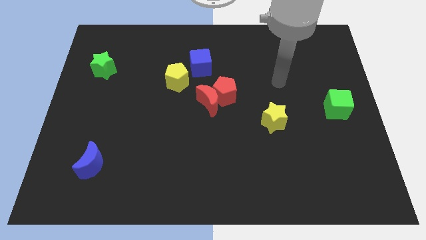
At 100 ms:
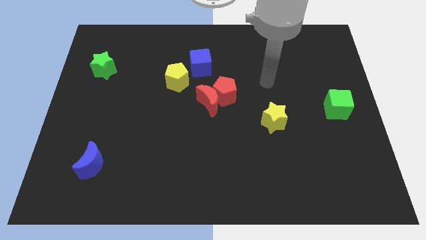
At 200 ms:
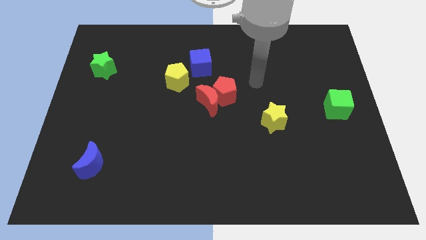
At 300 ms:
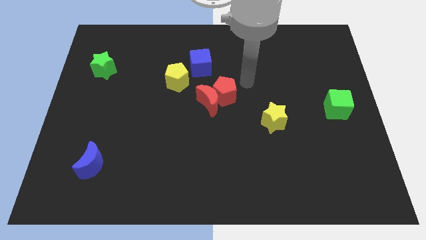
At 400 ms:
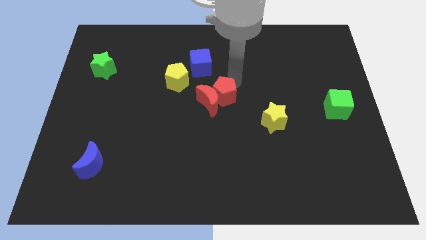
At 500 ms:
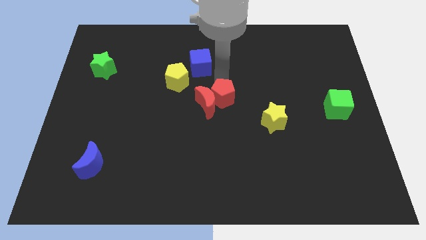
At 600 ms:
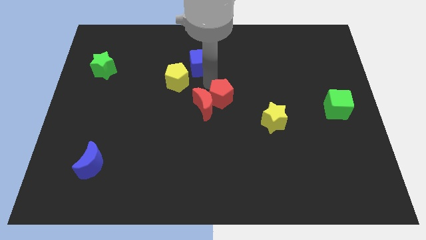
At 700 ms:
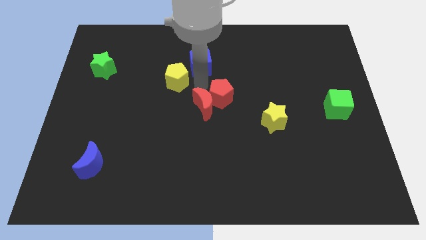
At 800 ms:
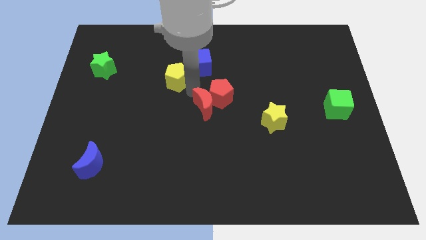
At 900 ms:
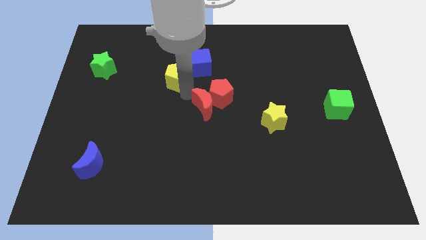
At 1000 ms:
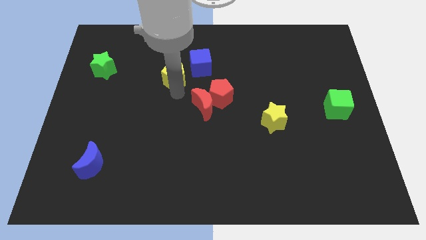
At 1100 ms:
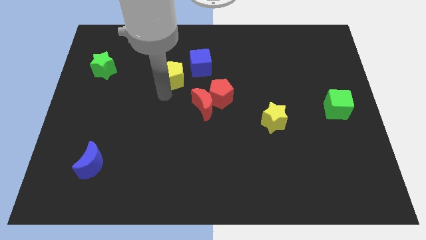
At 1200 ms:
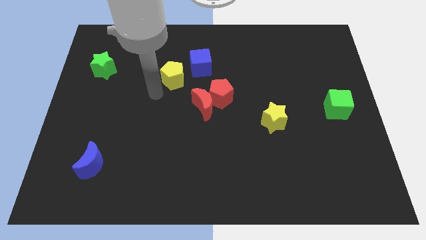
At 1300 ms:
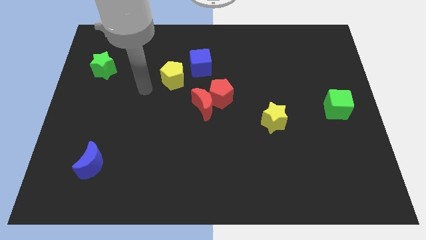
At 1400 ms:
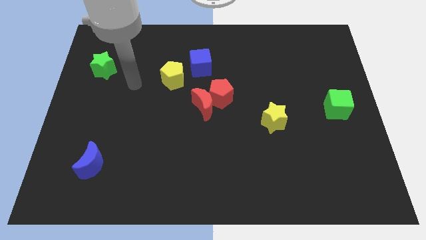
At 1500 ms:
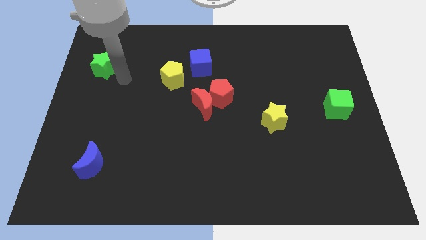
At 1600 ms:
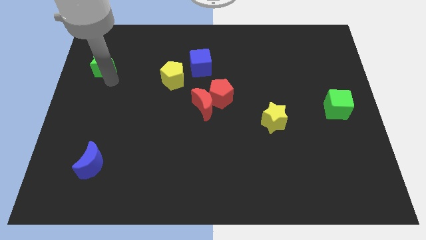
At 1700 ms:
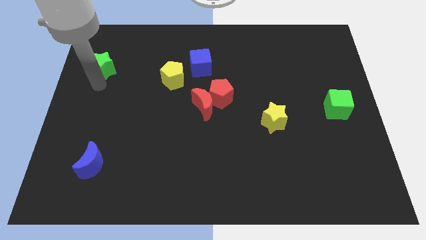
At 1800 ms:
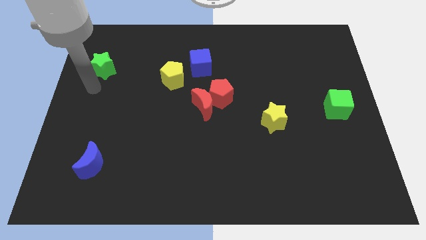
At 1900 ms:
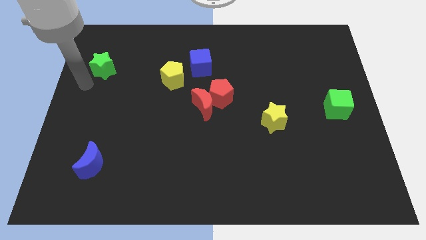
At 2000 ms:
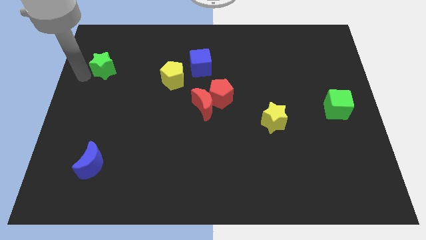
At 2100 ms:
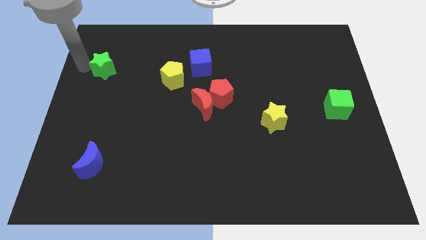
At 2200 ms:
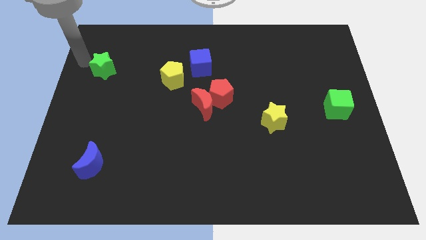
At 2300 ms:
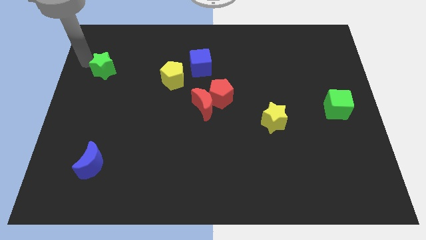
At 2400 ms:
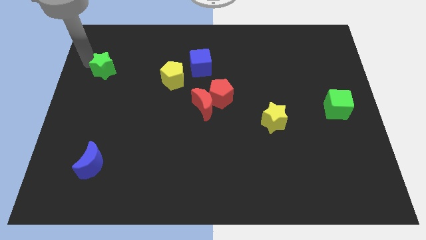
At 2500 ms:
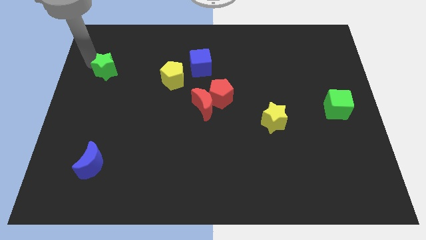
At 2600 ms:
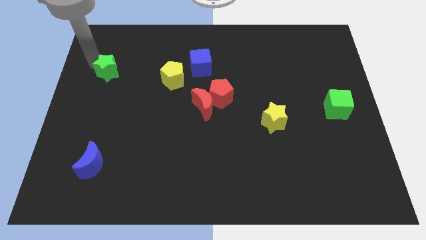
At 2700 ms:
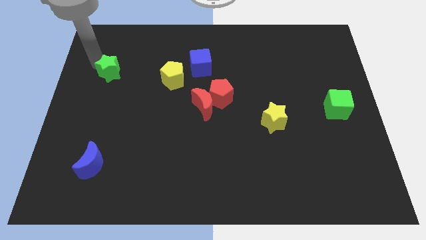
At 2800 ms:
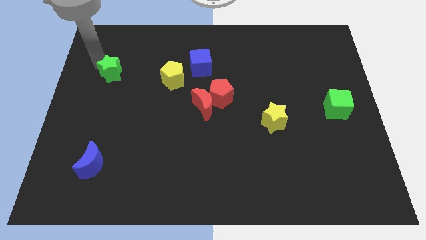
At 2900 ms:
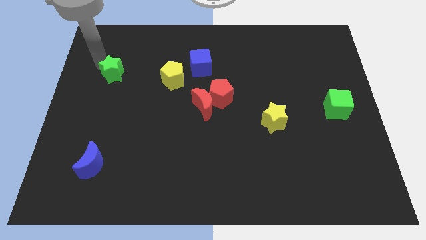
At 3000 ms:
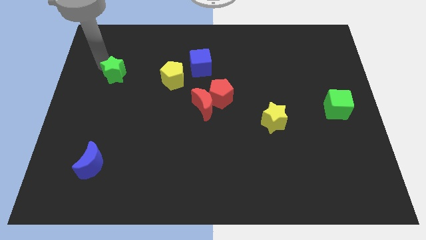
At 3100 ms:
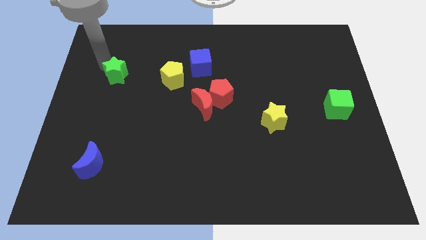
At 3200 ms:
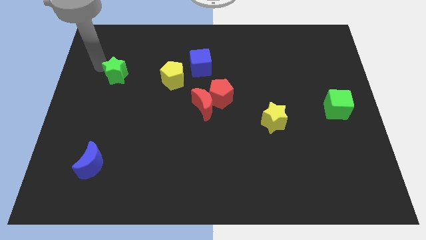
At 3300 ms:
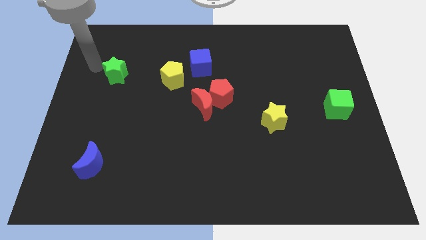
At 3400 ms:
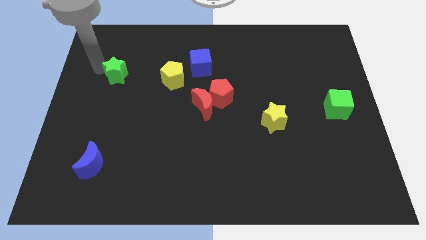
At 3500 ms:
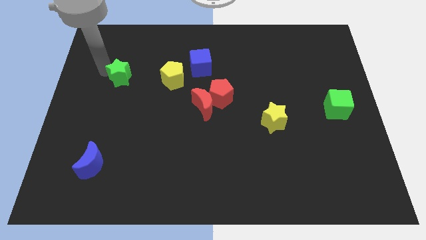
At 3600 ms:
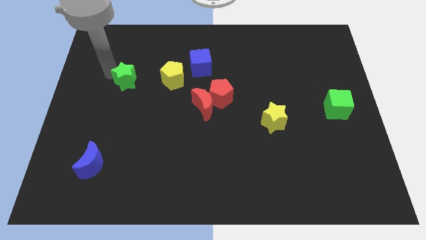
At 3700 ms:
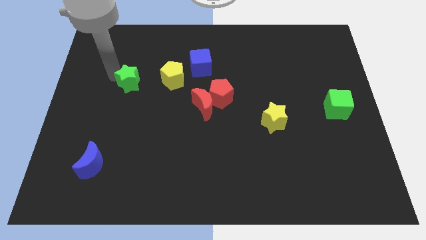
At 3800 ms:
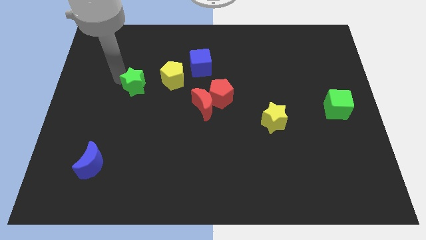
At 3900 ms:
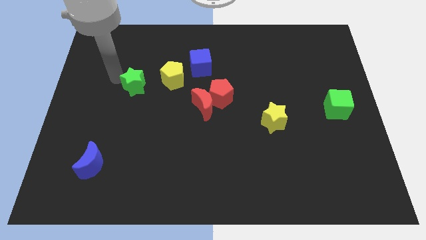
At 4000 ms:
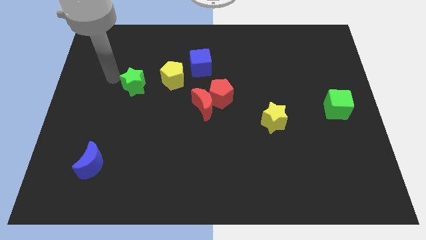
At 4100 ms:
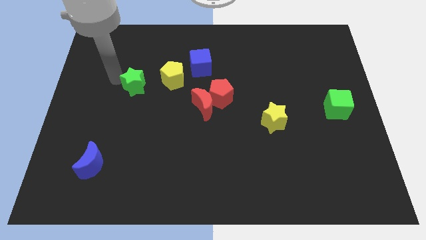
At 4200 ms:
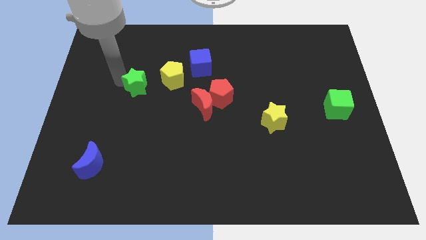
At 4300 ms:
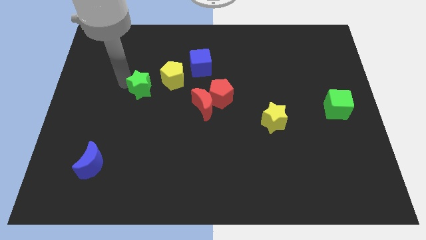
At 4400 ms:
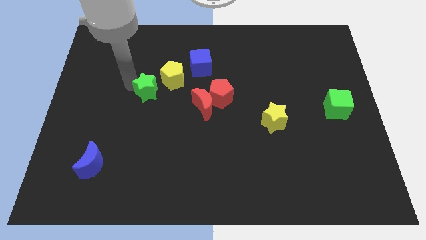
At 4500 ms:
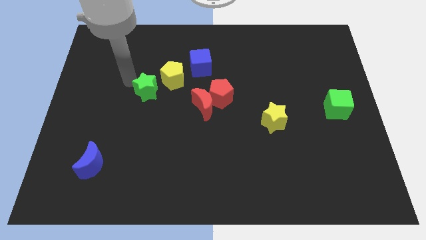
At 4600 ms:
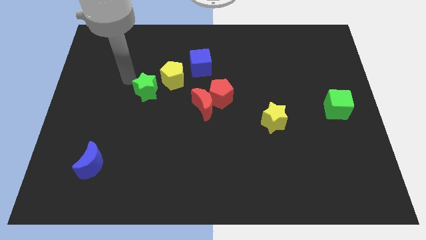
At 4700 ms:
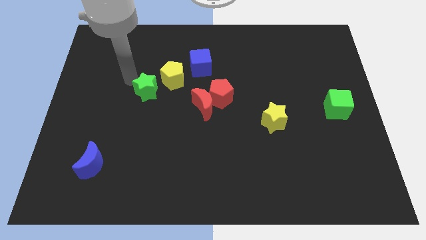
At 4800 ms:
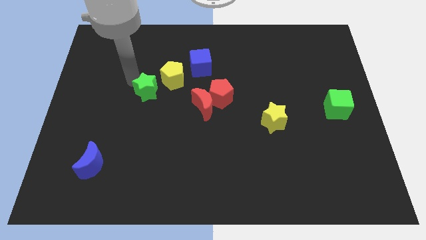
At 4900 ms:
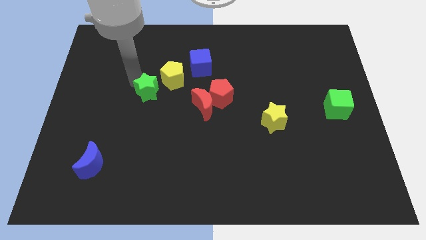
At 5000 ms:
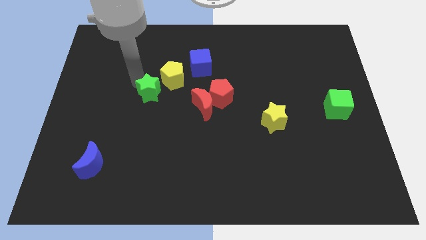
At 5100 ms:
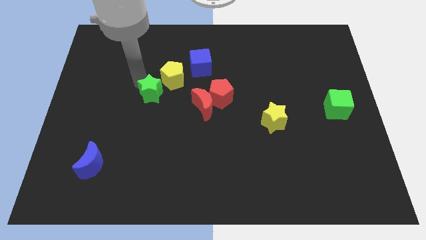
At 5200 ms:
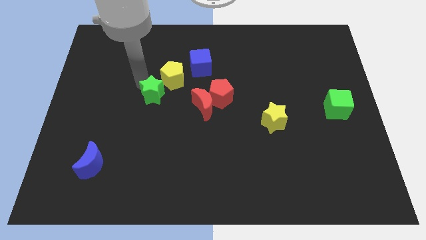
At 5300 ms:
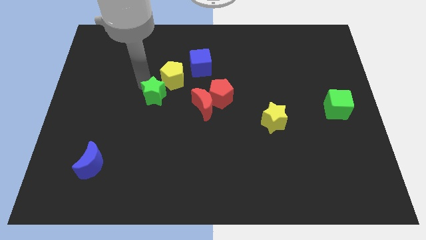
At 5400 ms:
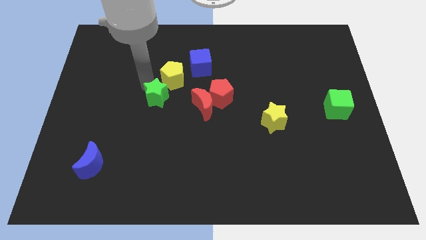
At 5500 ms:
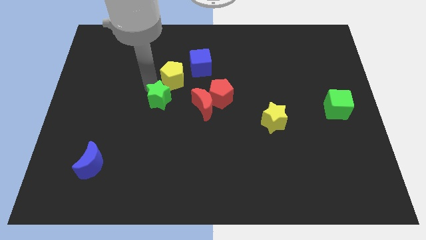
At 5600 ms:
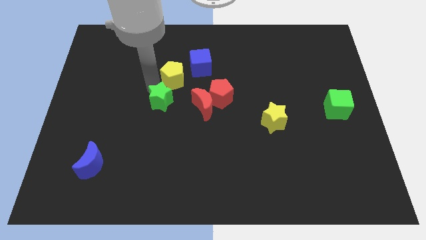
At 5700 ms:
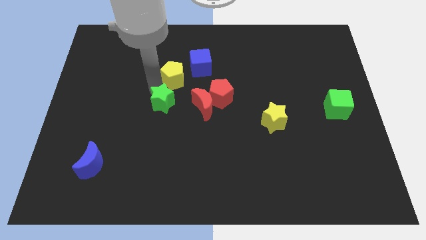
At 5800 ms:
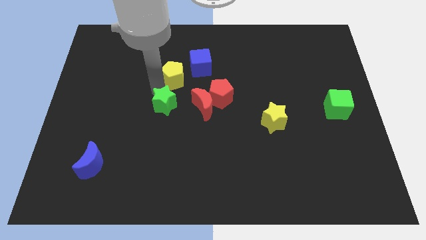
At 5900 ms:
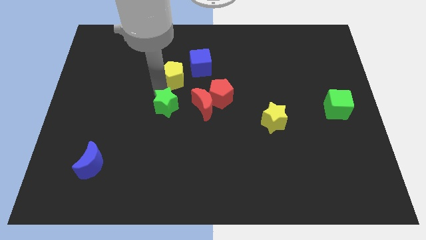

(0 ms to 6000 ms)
slide the green star diagonally downwards and right

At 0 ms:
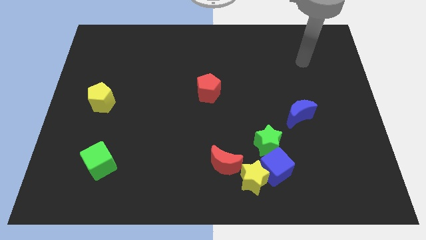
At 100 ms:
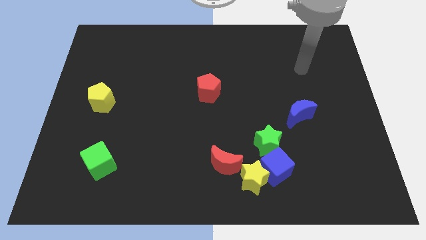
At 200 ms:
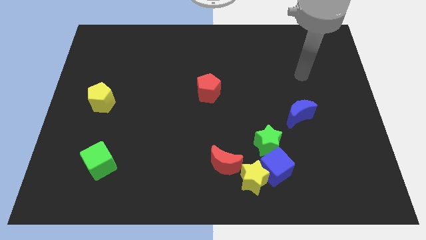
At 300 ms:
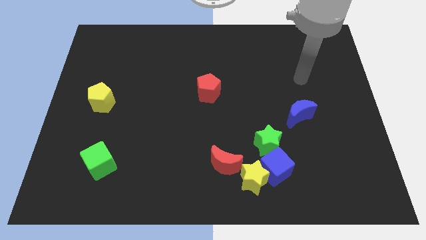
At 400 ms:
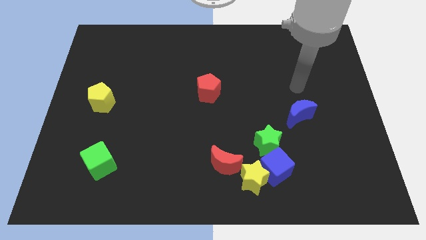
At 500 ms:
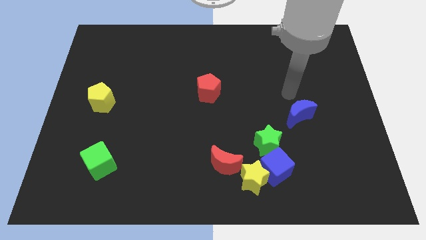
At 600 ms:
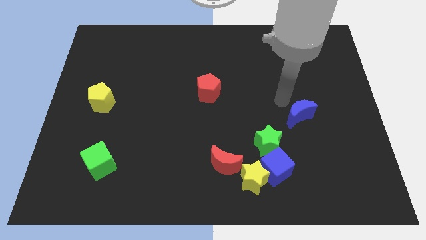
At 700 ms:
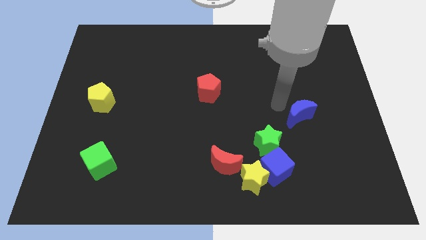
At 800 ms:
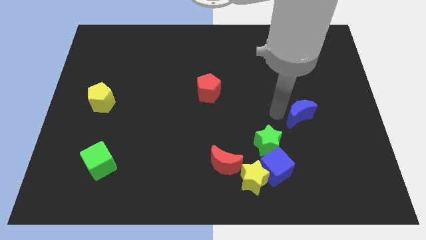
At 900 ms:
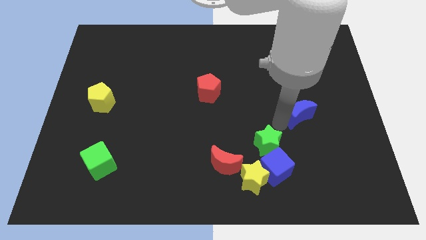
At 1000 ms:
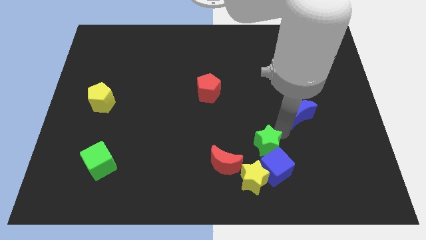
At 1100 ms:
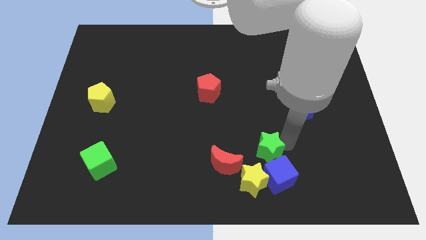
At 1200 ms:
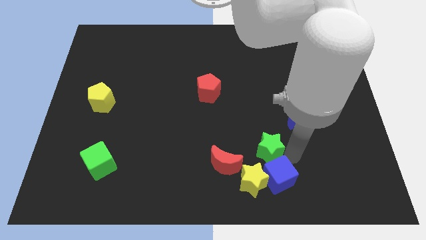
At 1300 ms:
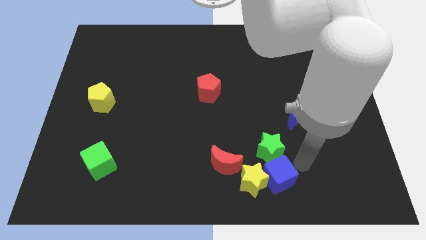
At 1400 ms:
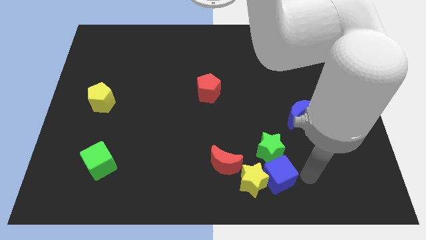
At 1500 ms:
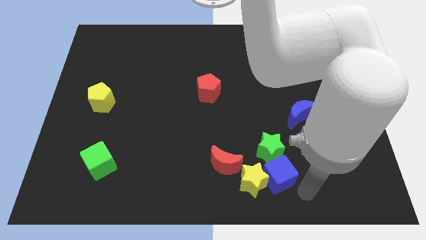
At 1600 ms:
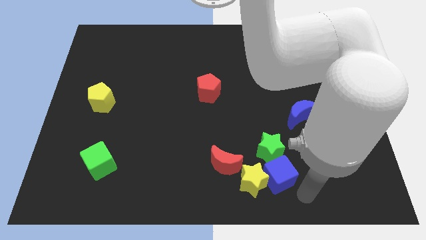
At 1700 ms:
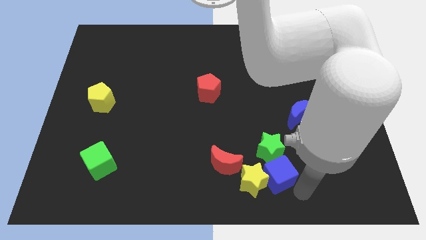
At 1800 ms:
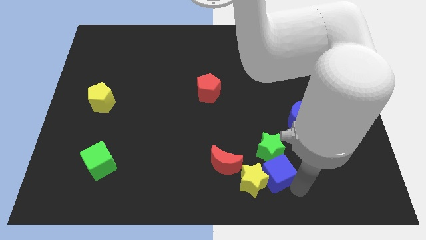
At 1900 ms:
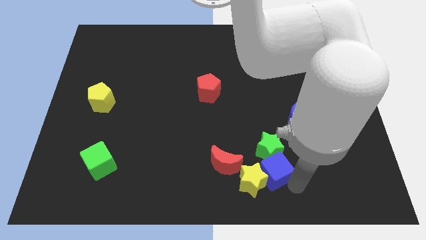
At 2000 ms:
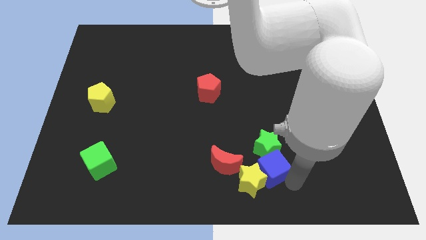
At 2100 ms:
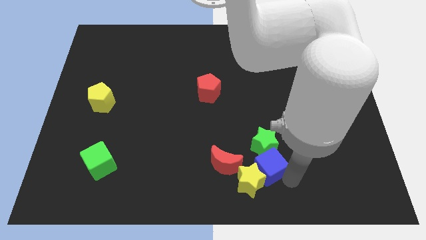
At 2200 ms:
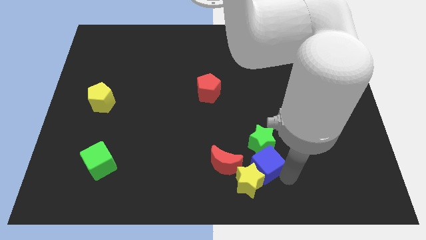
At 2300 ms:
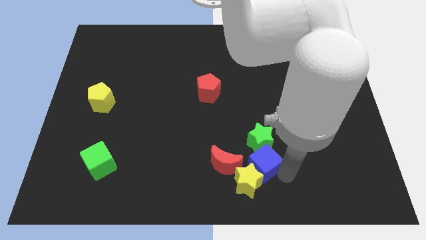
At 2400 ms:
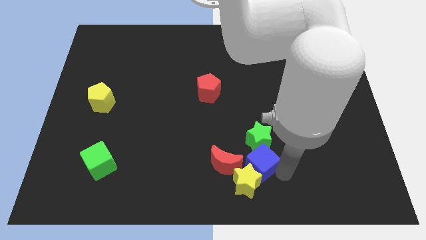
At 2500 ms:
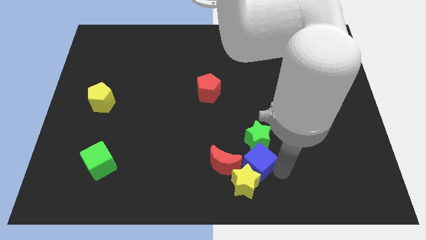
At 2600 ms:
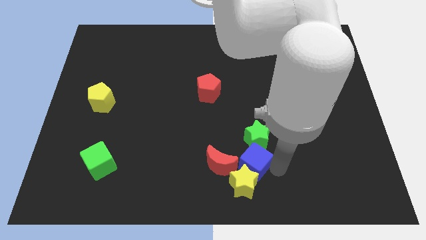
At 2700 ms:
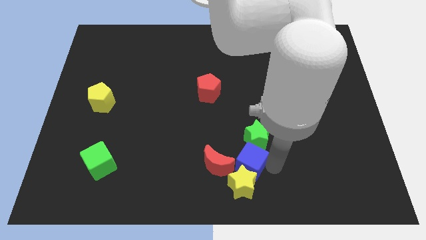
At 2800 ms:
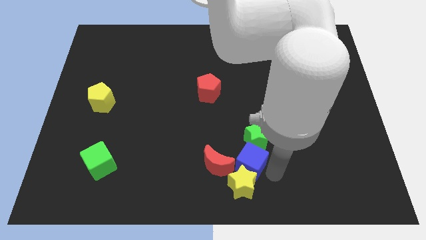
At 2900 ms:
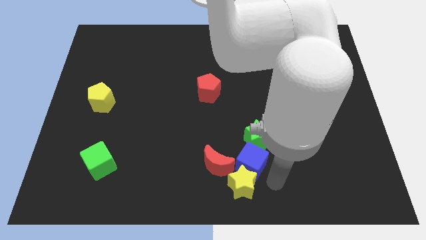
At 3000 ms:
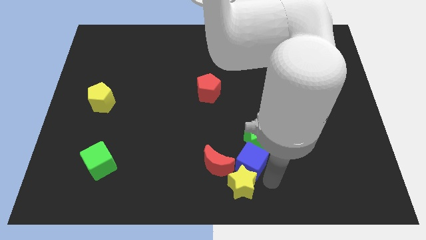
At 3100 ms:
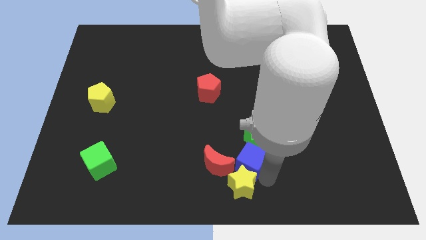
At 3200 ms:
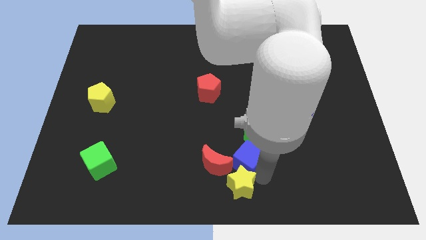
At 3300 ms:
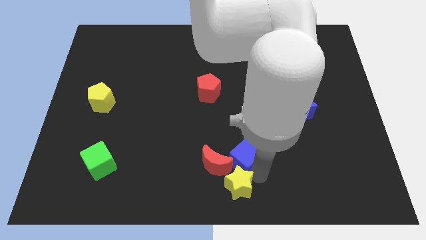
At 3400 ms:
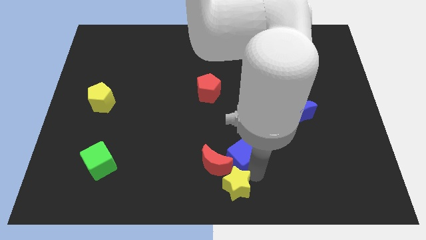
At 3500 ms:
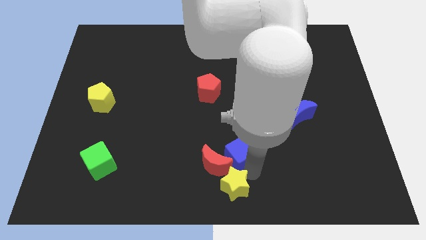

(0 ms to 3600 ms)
move the blue cube somewhat upwards and to the left diagonally
